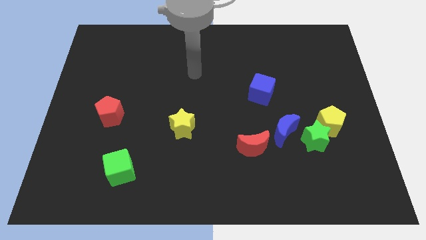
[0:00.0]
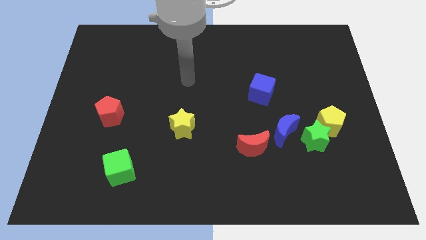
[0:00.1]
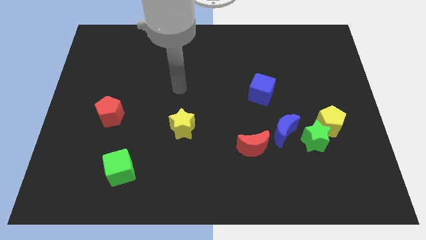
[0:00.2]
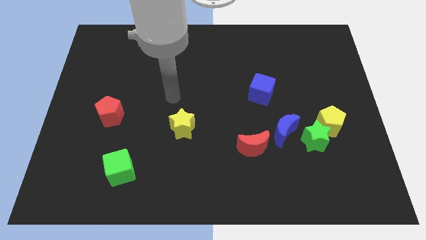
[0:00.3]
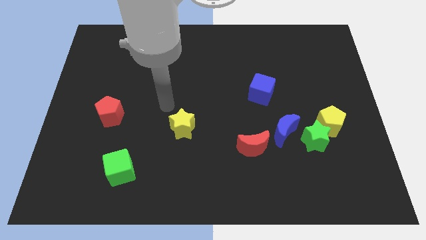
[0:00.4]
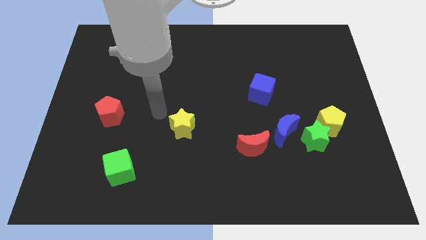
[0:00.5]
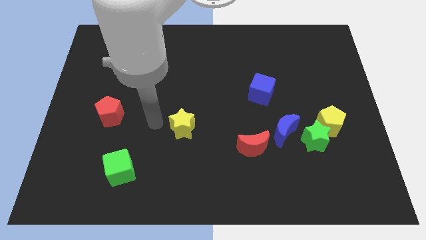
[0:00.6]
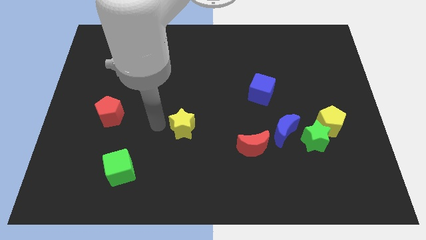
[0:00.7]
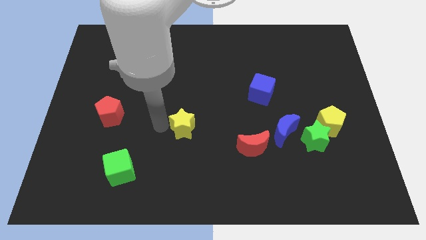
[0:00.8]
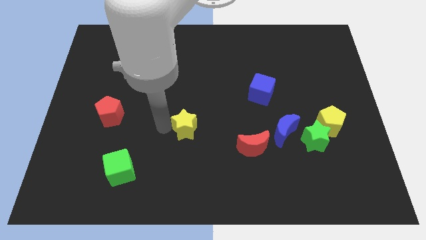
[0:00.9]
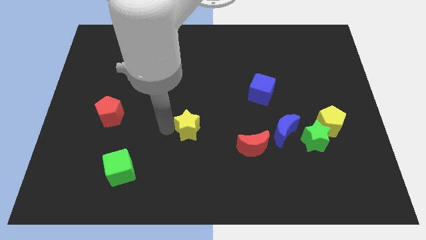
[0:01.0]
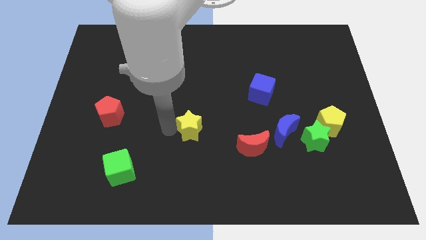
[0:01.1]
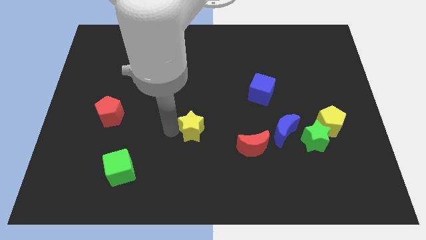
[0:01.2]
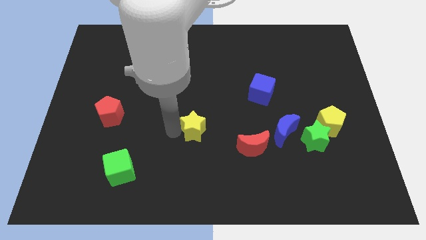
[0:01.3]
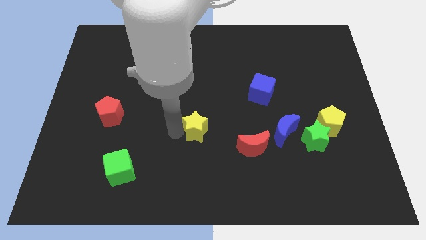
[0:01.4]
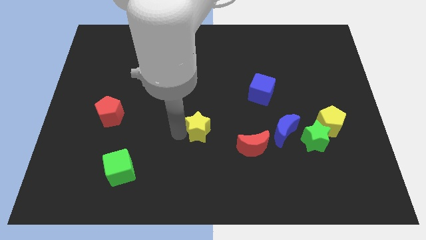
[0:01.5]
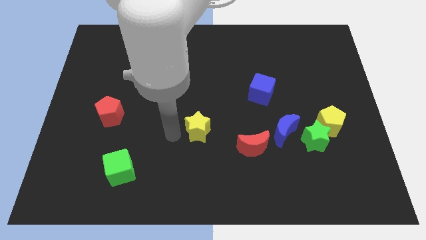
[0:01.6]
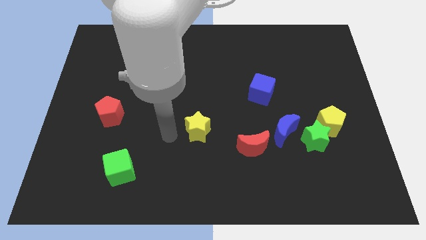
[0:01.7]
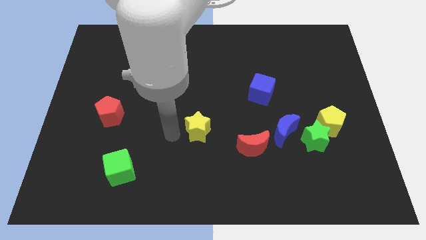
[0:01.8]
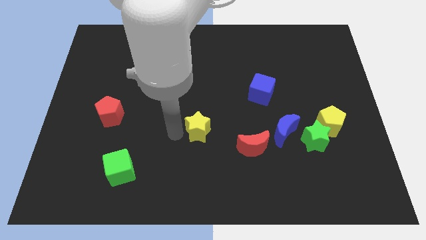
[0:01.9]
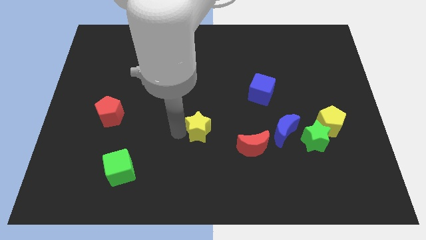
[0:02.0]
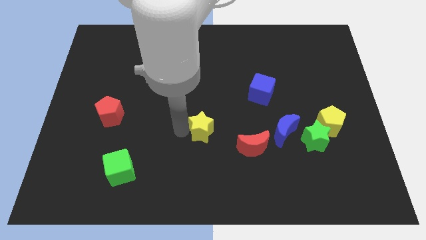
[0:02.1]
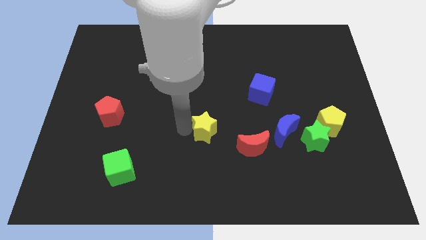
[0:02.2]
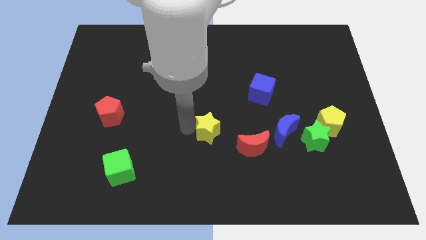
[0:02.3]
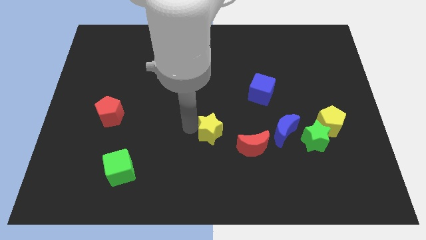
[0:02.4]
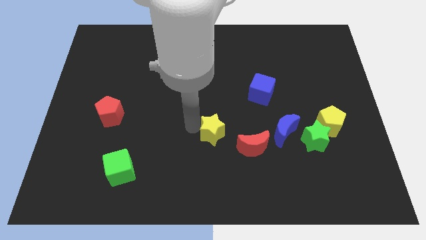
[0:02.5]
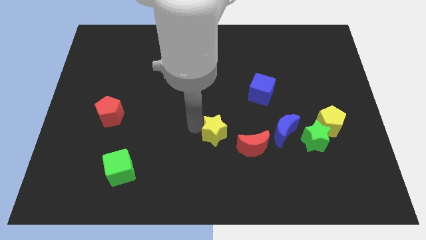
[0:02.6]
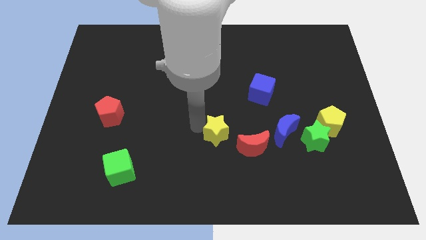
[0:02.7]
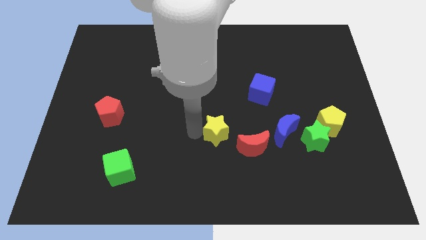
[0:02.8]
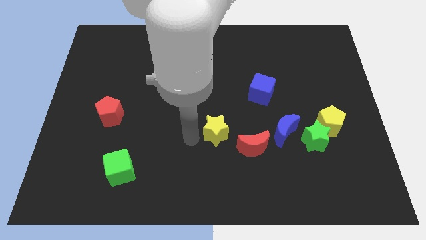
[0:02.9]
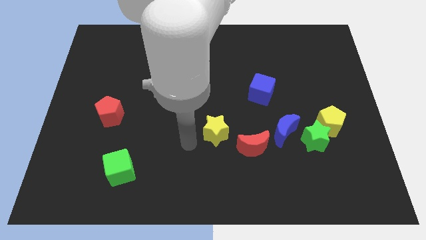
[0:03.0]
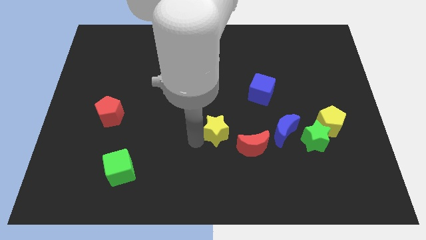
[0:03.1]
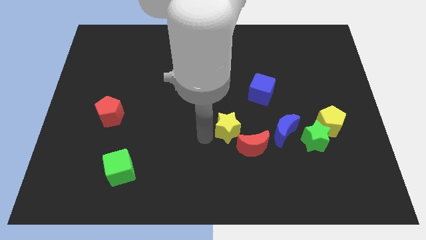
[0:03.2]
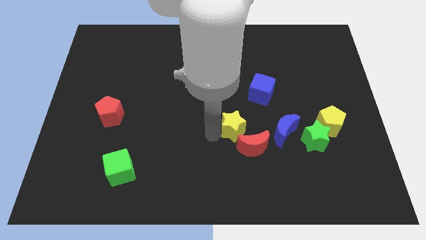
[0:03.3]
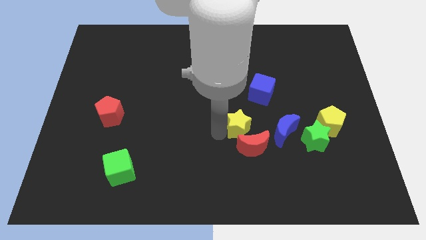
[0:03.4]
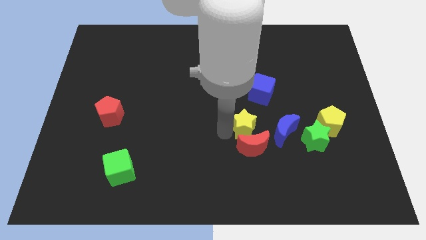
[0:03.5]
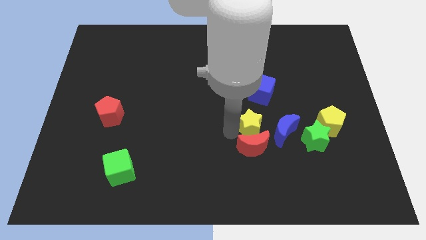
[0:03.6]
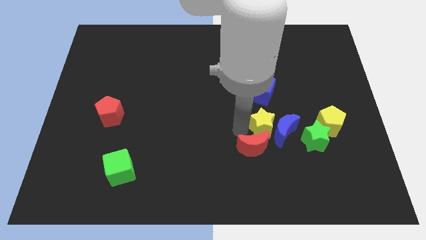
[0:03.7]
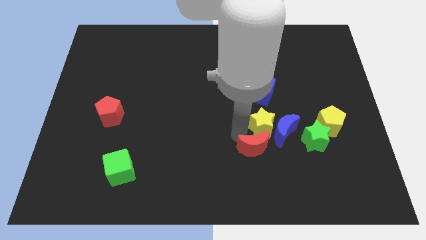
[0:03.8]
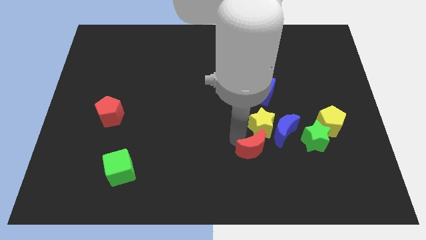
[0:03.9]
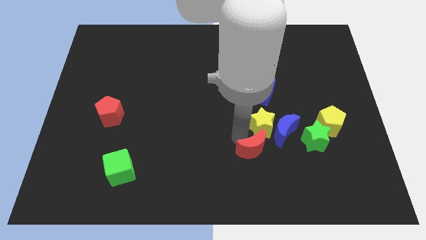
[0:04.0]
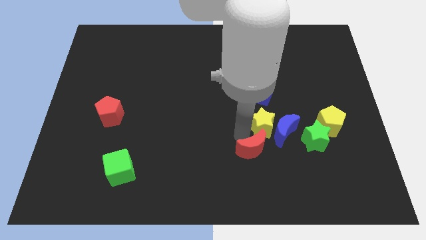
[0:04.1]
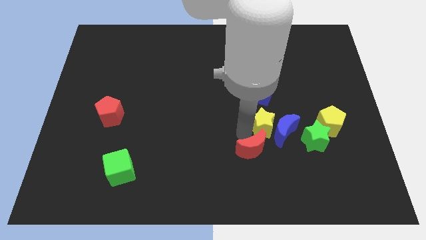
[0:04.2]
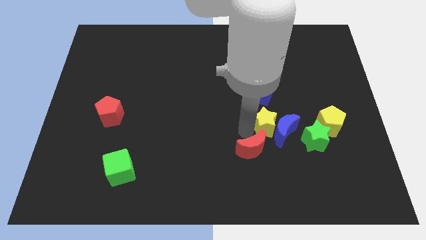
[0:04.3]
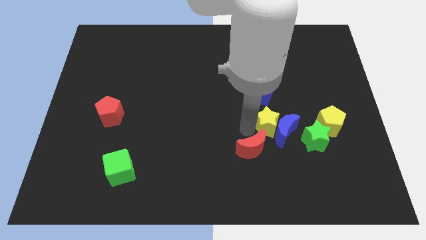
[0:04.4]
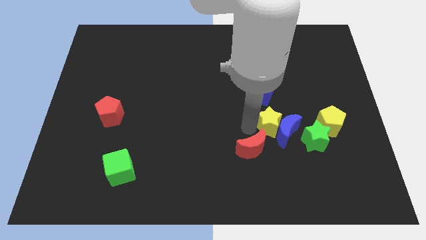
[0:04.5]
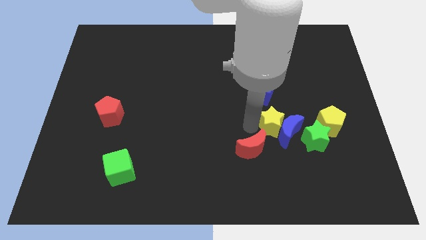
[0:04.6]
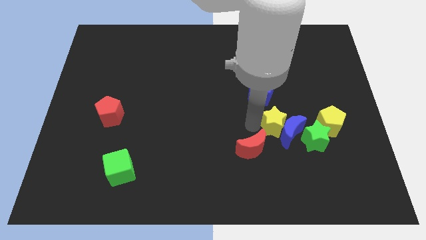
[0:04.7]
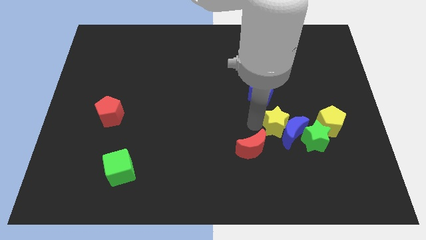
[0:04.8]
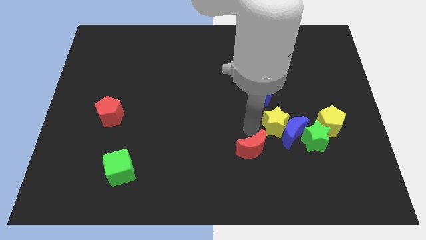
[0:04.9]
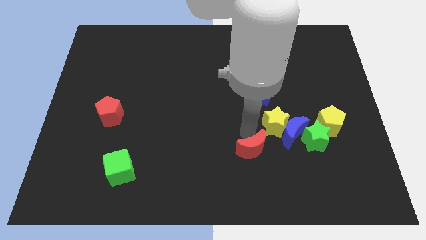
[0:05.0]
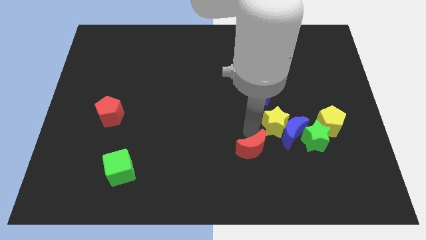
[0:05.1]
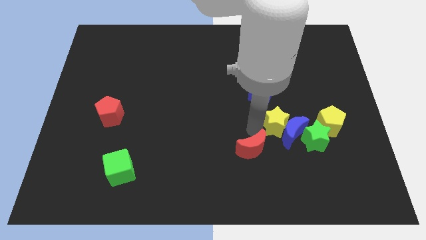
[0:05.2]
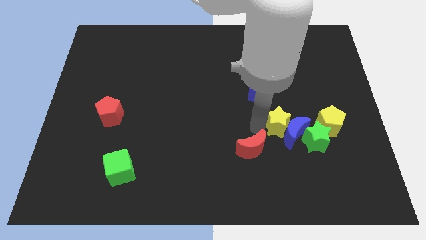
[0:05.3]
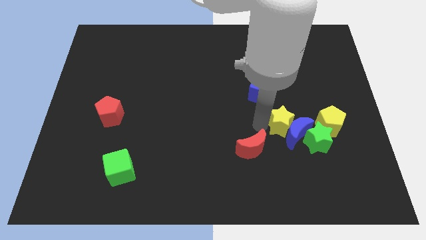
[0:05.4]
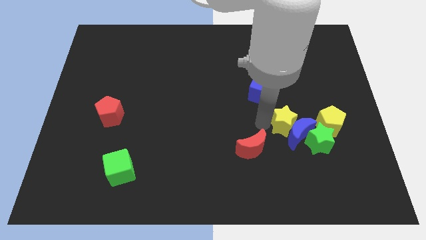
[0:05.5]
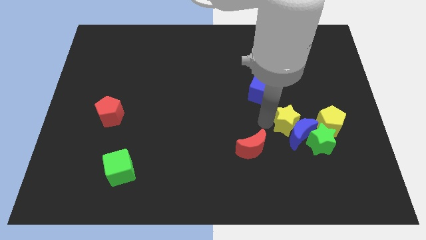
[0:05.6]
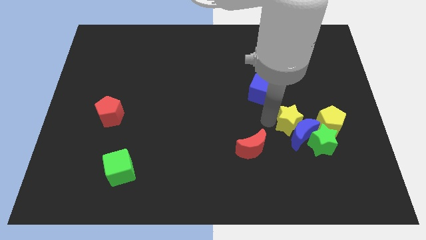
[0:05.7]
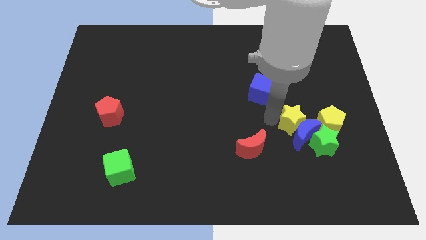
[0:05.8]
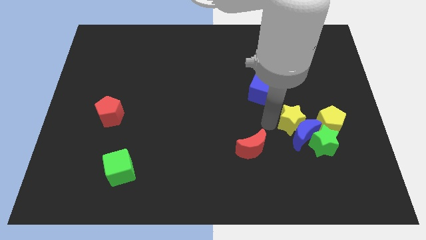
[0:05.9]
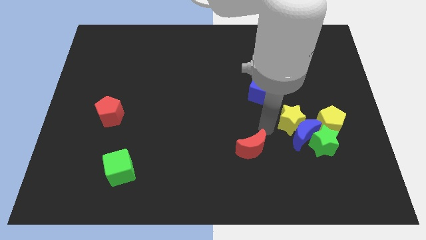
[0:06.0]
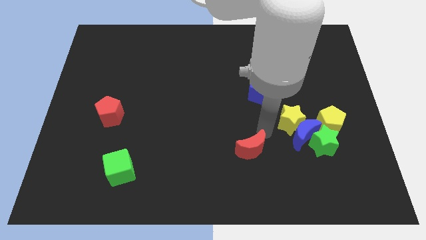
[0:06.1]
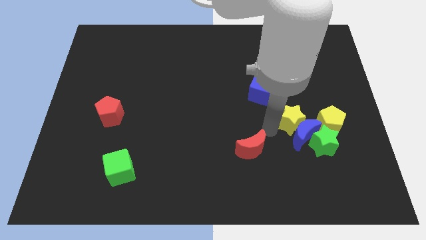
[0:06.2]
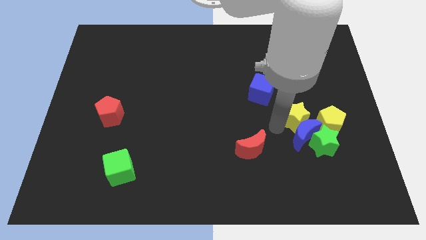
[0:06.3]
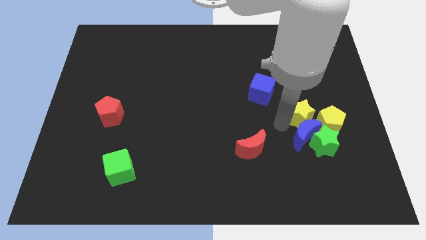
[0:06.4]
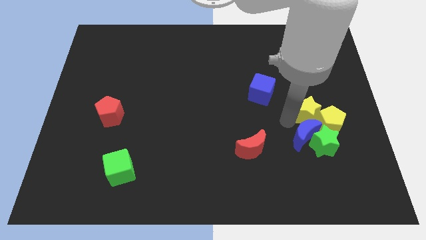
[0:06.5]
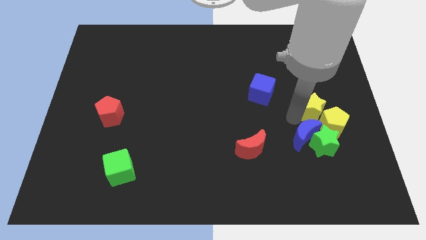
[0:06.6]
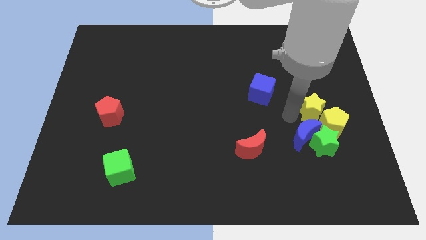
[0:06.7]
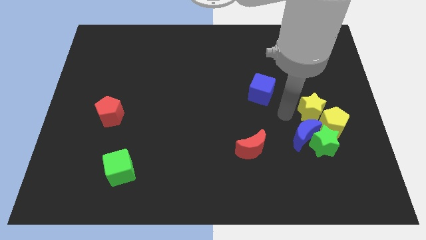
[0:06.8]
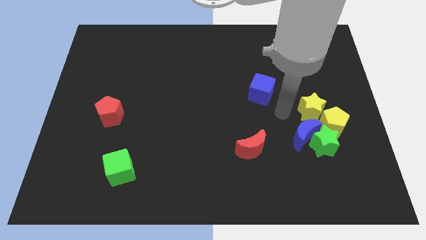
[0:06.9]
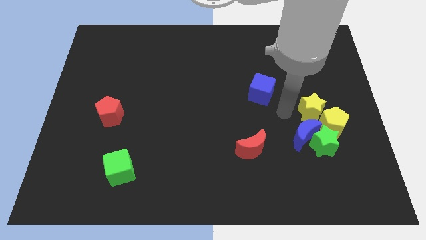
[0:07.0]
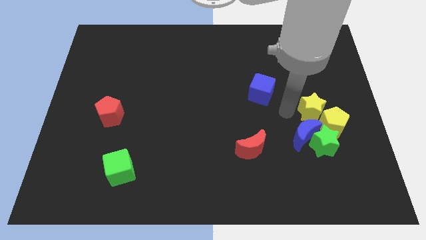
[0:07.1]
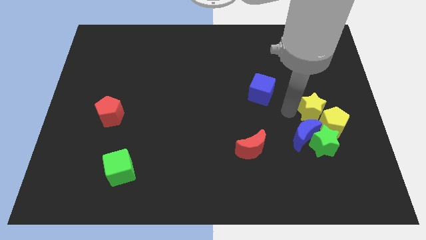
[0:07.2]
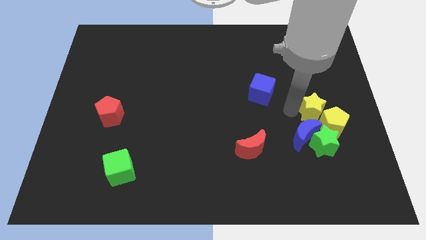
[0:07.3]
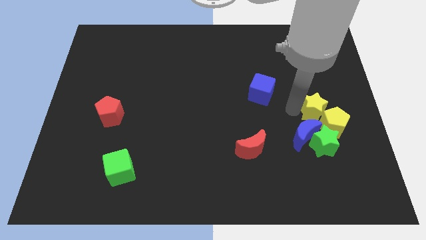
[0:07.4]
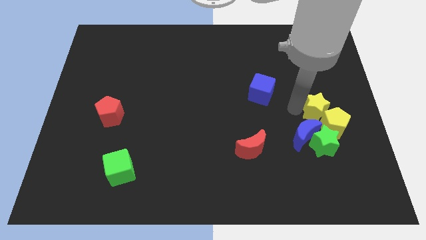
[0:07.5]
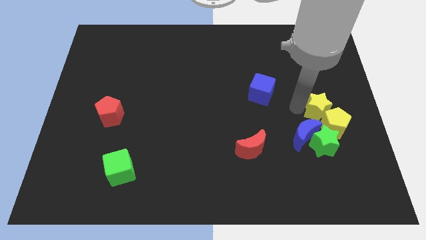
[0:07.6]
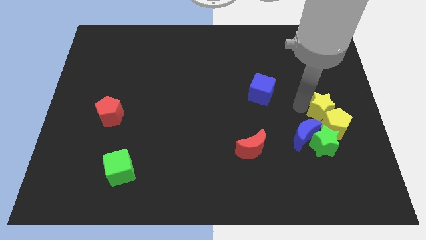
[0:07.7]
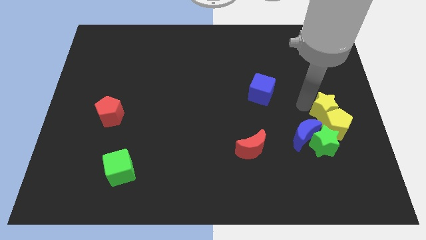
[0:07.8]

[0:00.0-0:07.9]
put the yellow star to the center right
